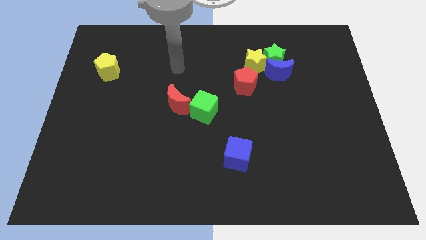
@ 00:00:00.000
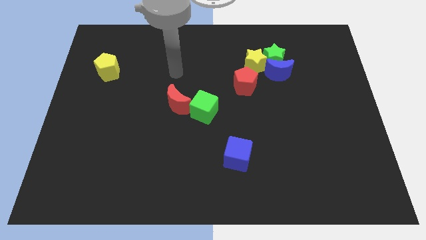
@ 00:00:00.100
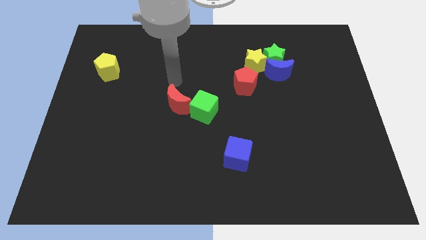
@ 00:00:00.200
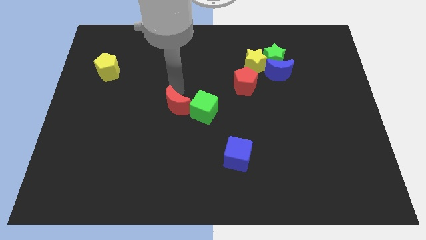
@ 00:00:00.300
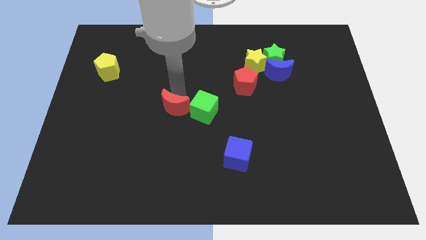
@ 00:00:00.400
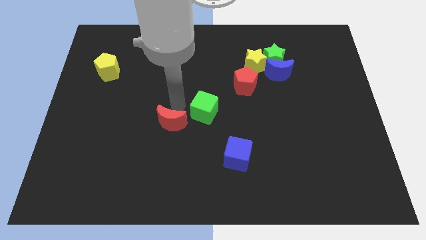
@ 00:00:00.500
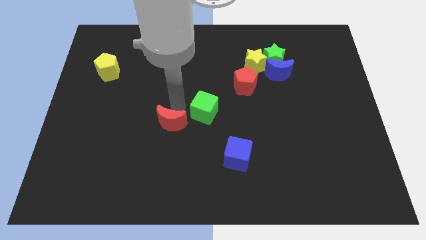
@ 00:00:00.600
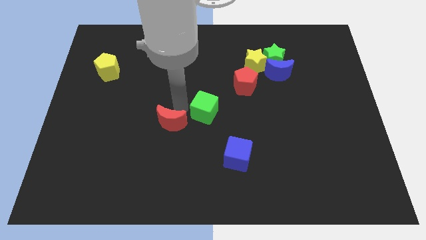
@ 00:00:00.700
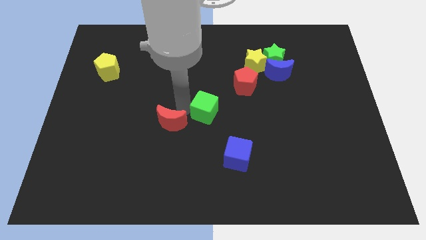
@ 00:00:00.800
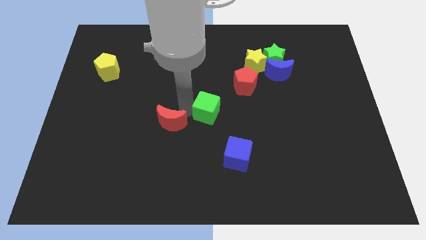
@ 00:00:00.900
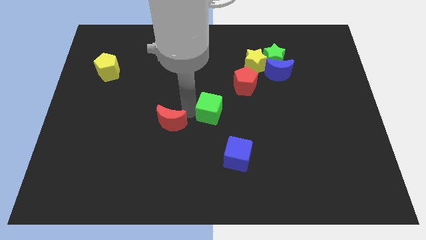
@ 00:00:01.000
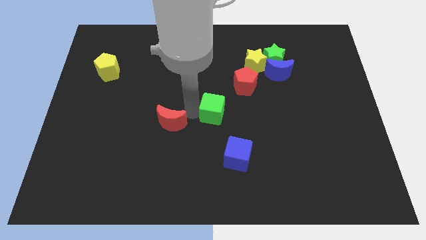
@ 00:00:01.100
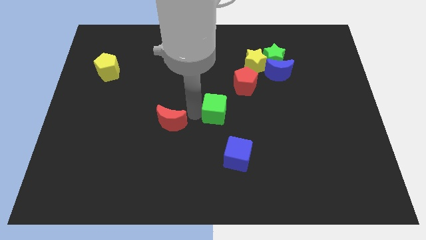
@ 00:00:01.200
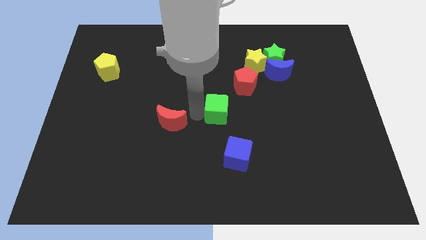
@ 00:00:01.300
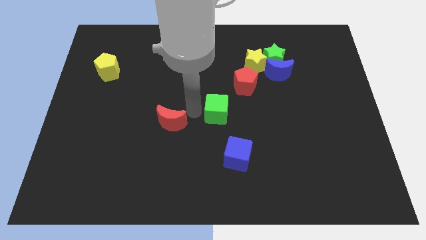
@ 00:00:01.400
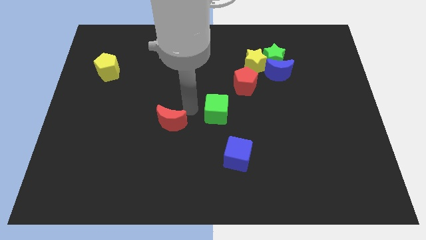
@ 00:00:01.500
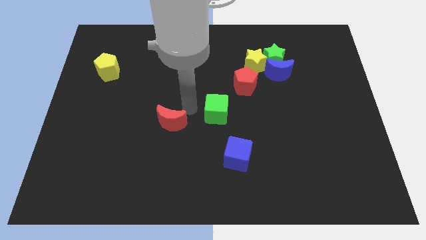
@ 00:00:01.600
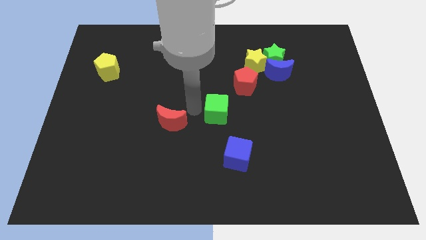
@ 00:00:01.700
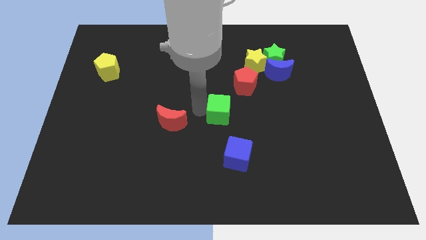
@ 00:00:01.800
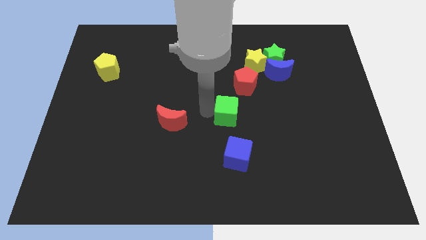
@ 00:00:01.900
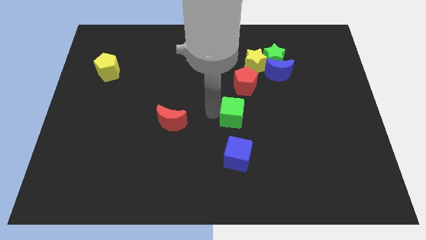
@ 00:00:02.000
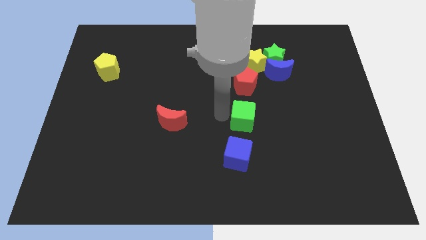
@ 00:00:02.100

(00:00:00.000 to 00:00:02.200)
slide the green cube right a little bit

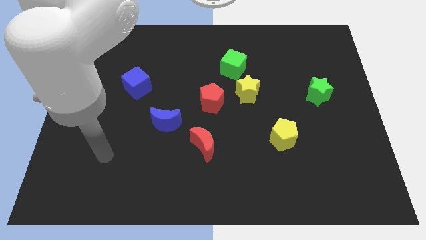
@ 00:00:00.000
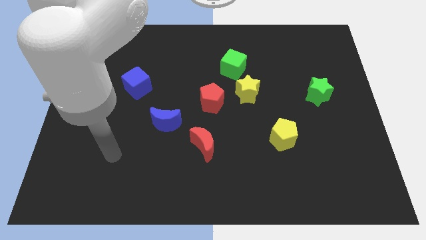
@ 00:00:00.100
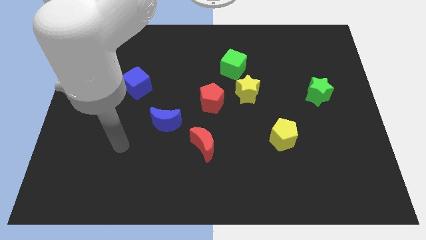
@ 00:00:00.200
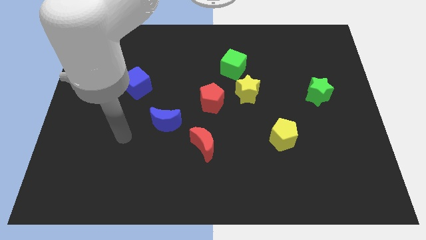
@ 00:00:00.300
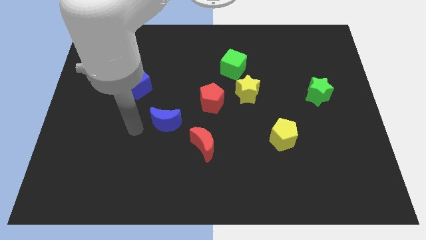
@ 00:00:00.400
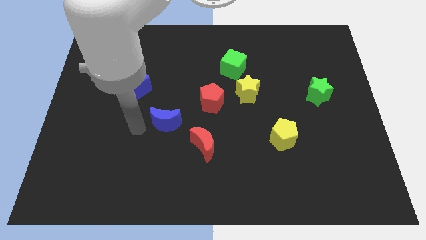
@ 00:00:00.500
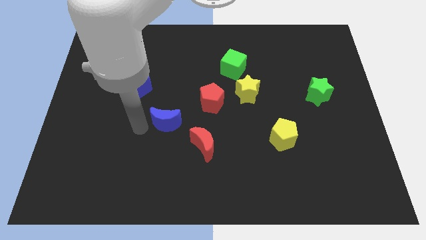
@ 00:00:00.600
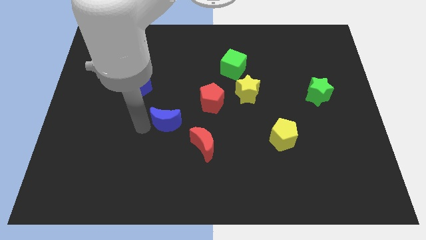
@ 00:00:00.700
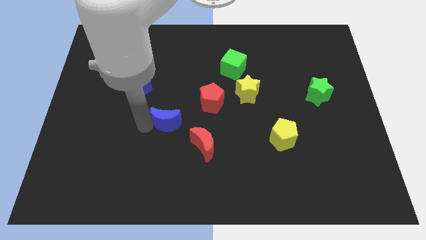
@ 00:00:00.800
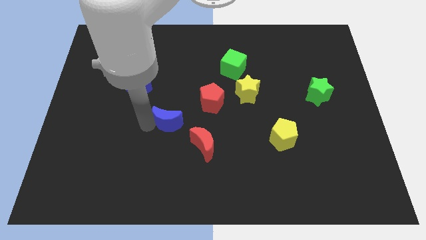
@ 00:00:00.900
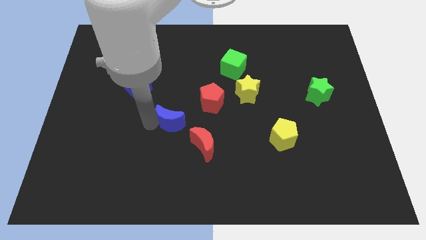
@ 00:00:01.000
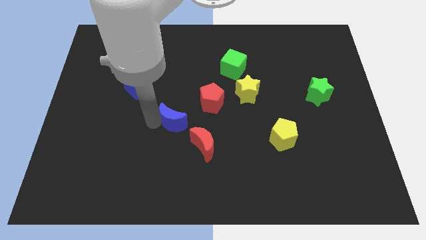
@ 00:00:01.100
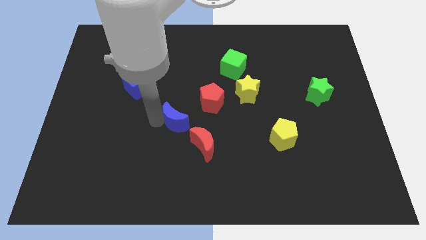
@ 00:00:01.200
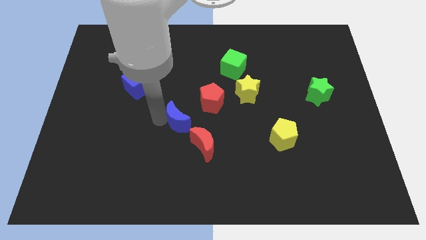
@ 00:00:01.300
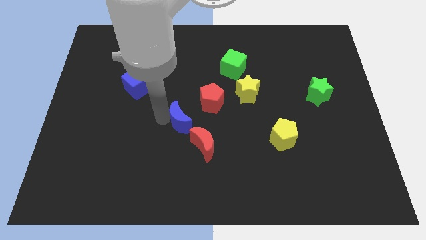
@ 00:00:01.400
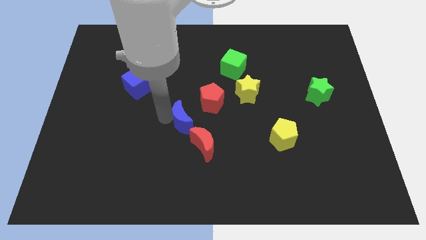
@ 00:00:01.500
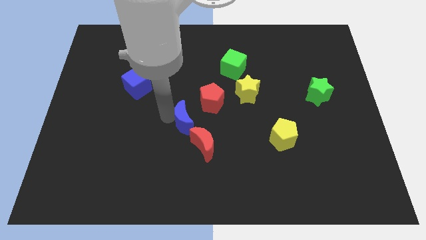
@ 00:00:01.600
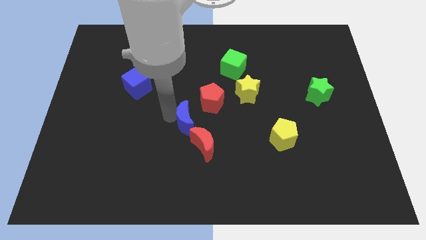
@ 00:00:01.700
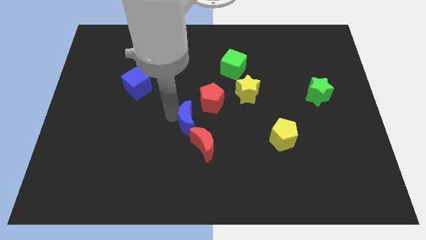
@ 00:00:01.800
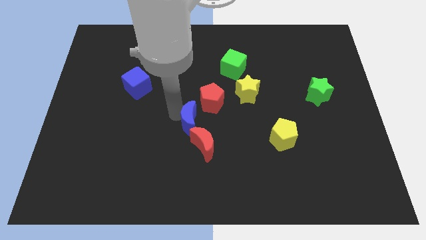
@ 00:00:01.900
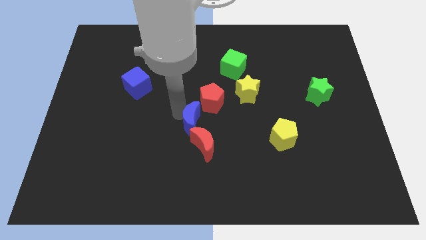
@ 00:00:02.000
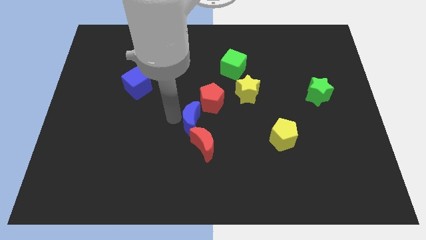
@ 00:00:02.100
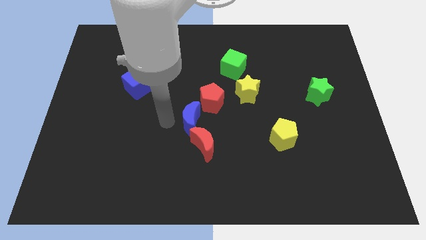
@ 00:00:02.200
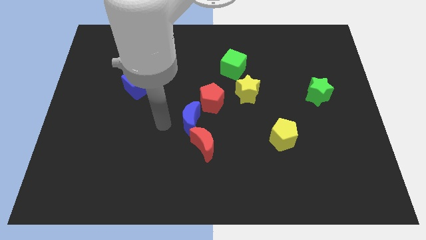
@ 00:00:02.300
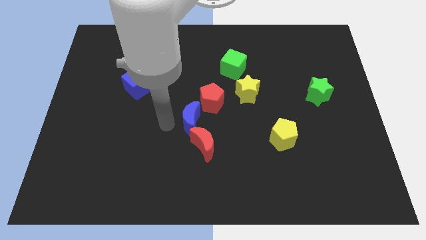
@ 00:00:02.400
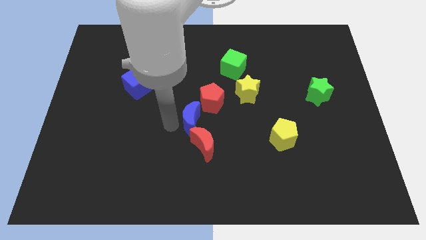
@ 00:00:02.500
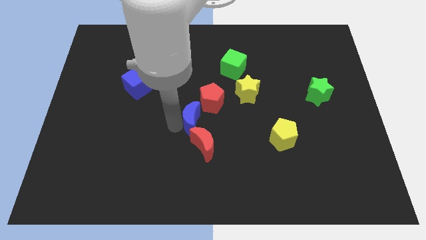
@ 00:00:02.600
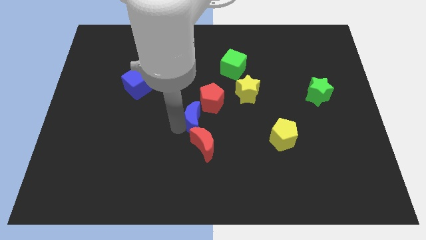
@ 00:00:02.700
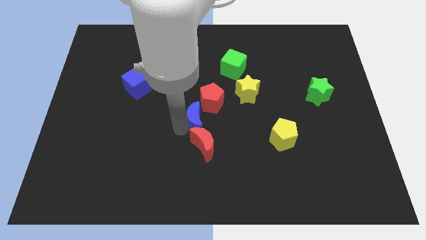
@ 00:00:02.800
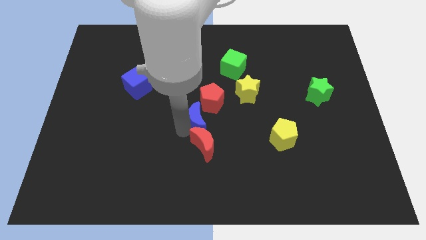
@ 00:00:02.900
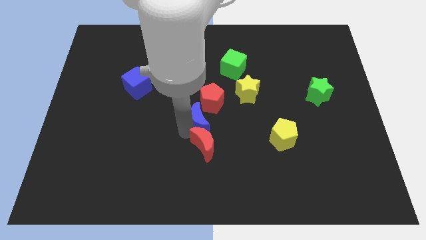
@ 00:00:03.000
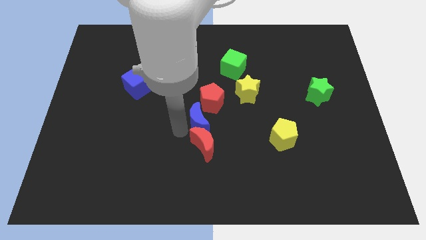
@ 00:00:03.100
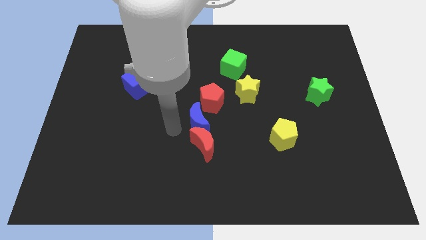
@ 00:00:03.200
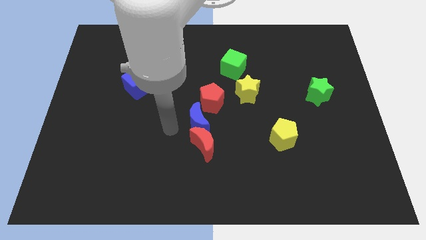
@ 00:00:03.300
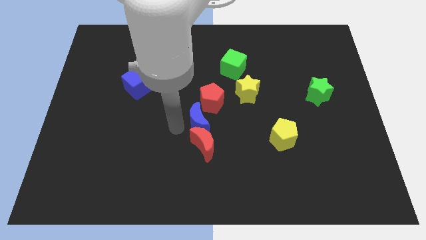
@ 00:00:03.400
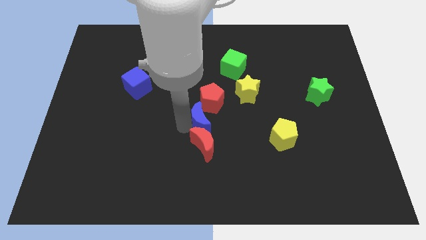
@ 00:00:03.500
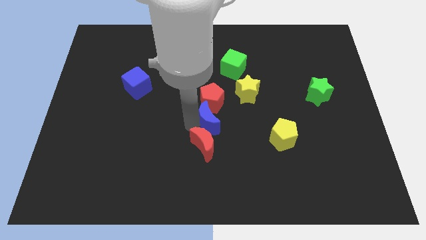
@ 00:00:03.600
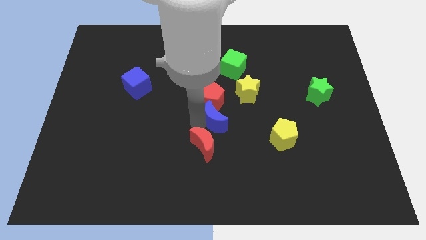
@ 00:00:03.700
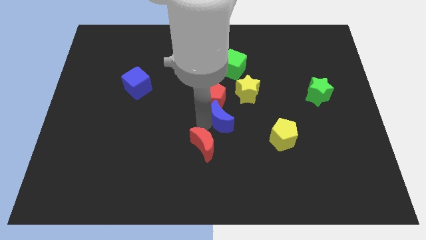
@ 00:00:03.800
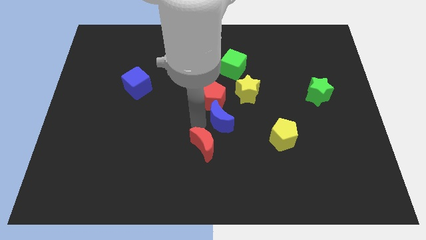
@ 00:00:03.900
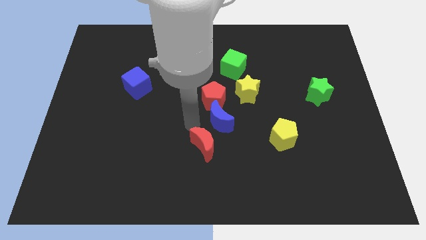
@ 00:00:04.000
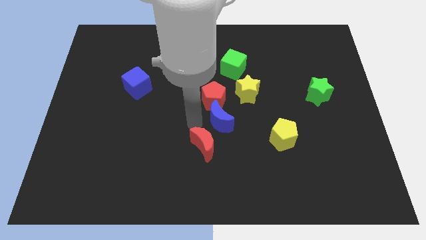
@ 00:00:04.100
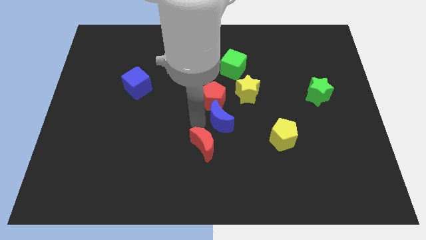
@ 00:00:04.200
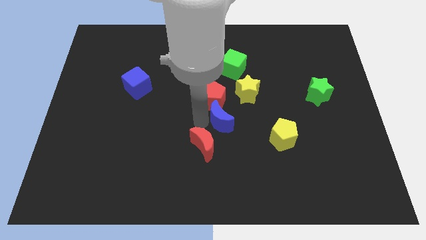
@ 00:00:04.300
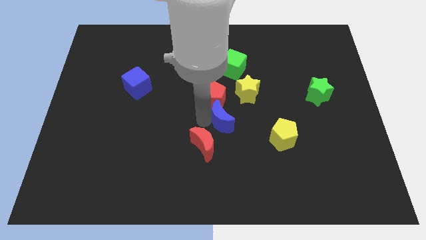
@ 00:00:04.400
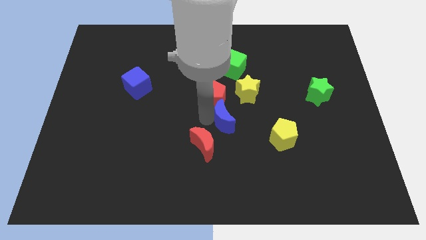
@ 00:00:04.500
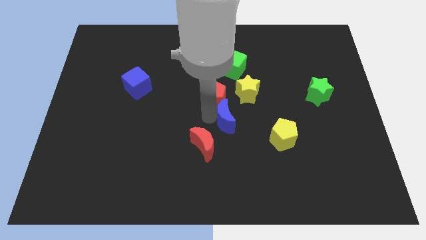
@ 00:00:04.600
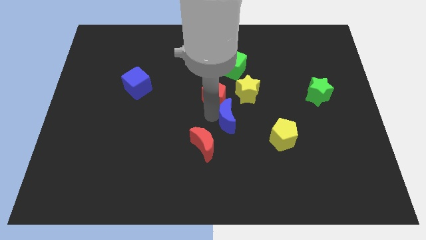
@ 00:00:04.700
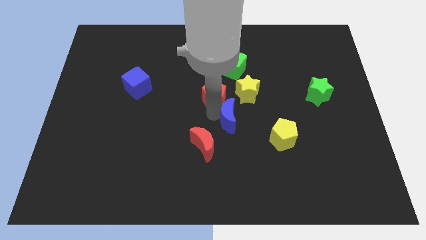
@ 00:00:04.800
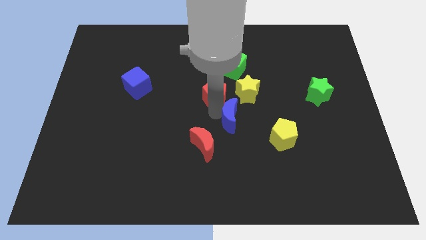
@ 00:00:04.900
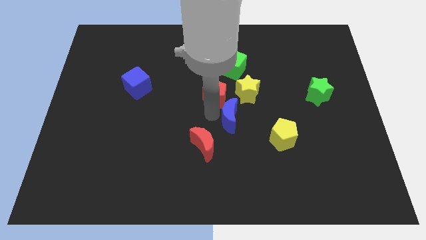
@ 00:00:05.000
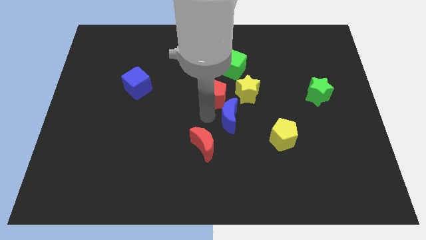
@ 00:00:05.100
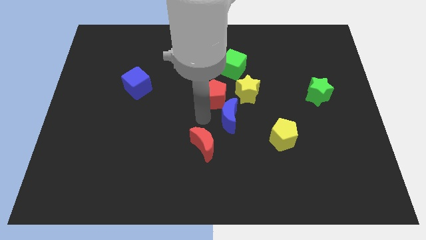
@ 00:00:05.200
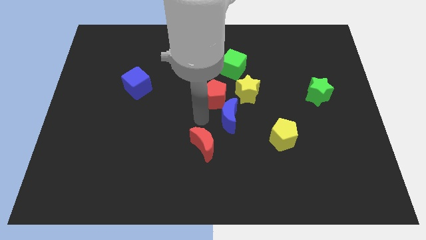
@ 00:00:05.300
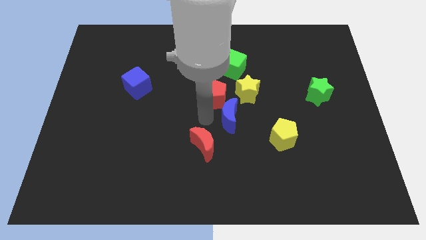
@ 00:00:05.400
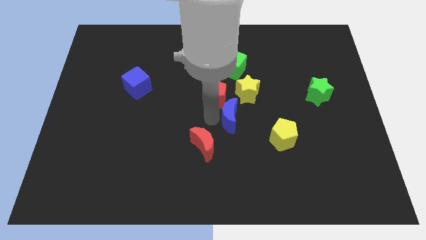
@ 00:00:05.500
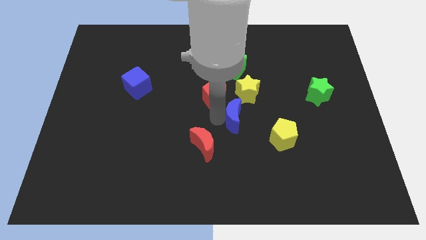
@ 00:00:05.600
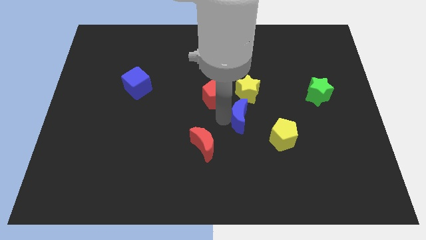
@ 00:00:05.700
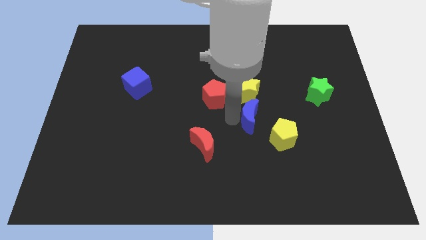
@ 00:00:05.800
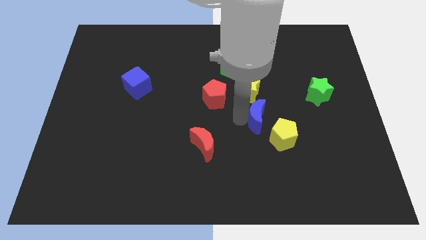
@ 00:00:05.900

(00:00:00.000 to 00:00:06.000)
push the blue moon to the right
